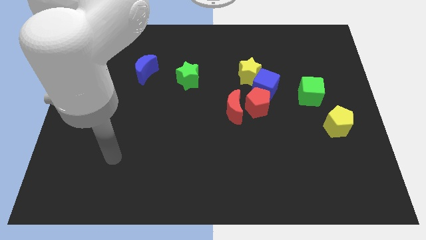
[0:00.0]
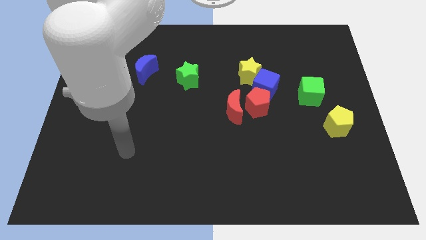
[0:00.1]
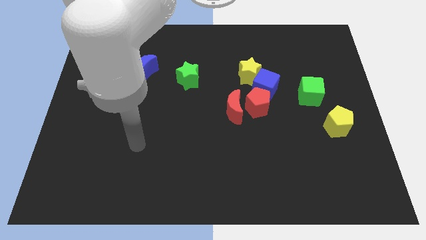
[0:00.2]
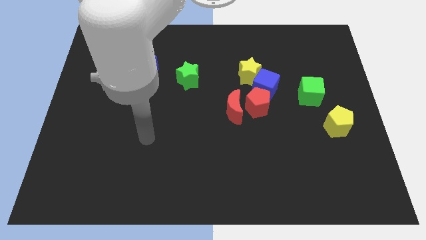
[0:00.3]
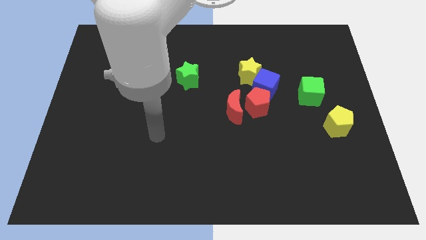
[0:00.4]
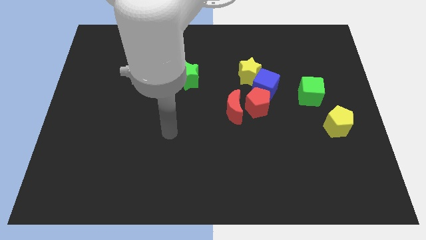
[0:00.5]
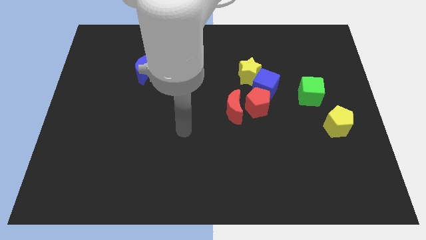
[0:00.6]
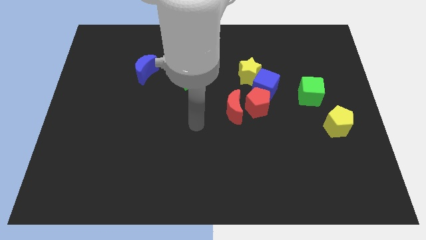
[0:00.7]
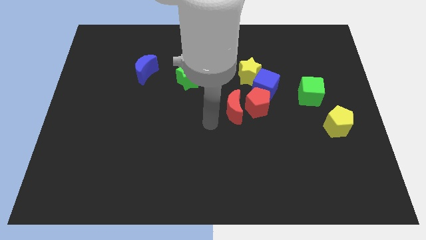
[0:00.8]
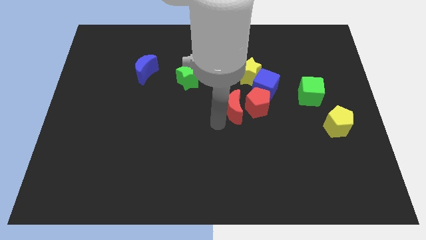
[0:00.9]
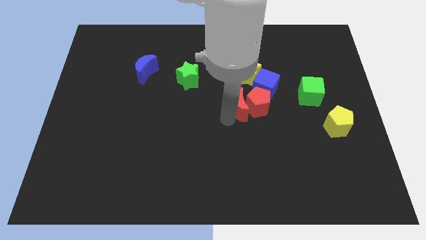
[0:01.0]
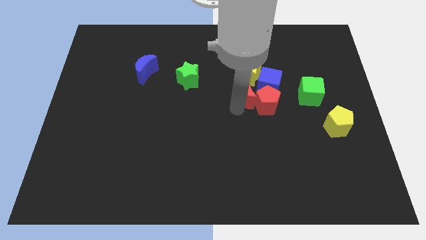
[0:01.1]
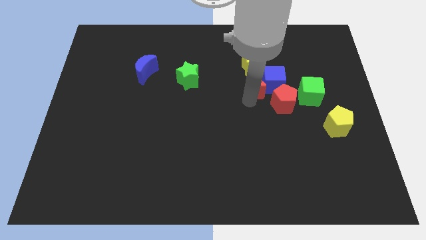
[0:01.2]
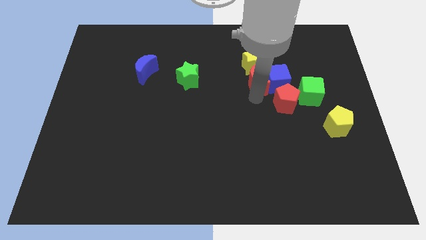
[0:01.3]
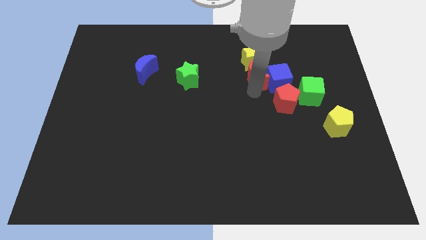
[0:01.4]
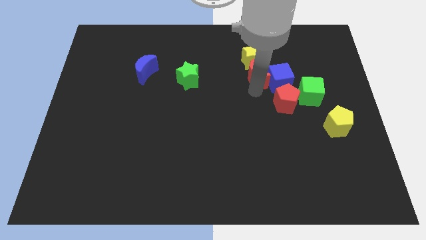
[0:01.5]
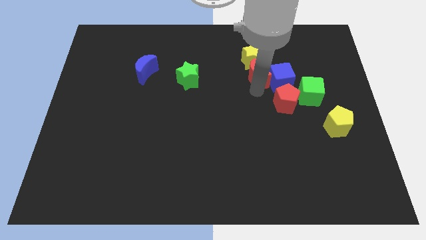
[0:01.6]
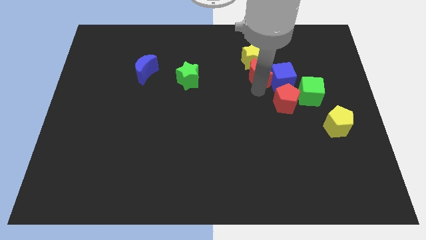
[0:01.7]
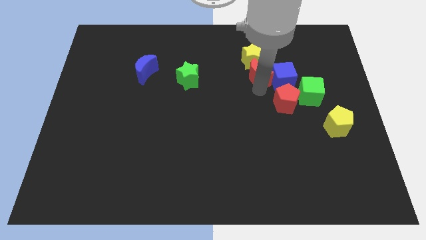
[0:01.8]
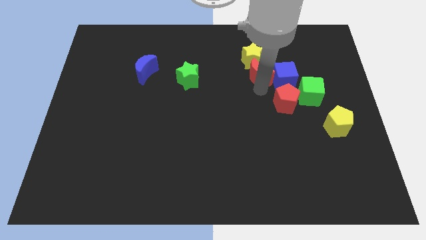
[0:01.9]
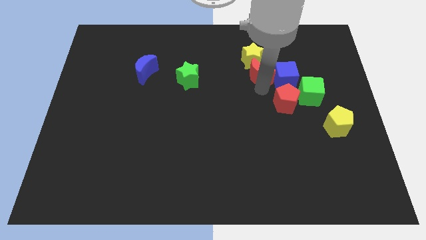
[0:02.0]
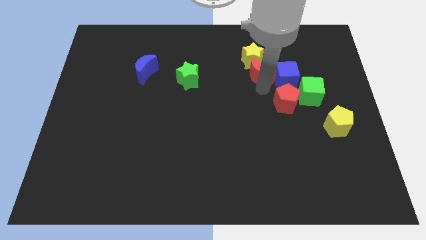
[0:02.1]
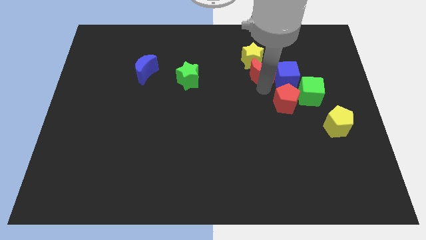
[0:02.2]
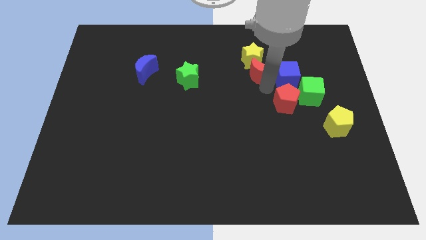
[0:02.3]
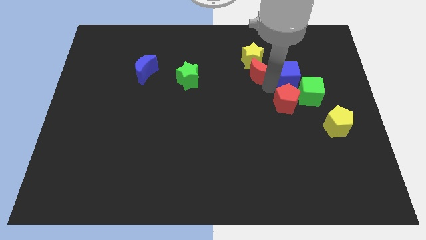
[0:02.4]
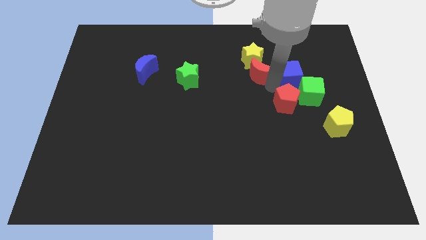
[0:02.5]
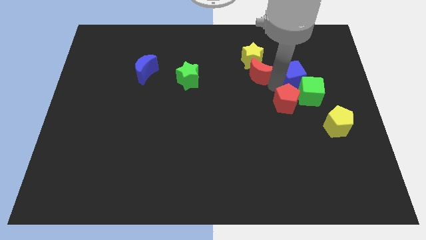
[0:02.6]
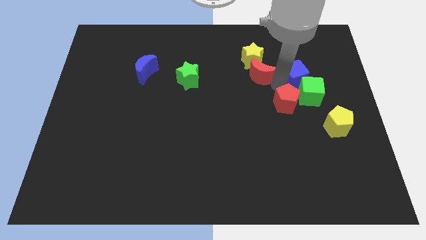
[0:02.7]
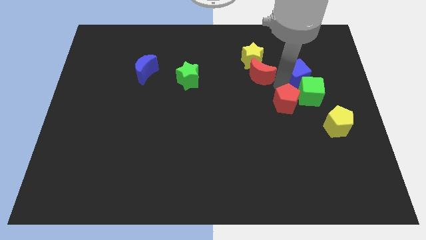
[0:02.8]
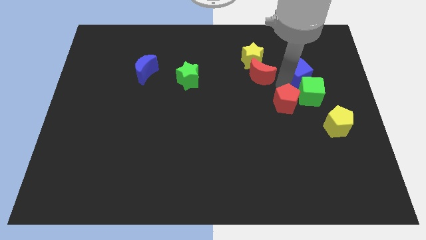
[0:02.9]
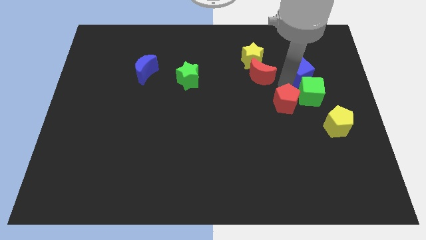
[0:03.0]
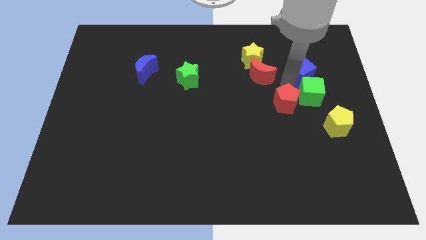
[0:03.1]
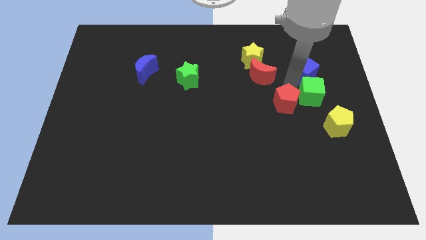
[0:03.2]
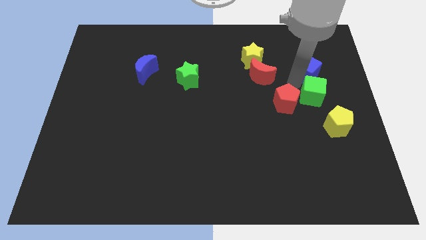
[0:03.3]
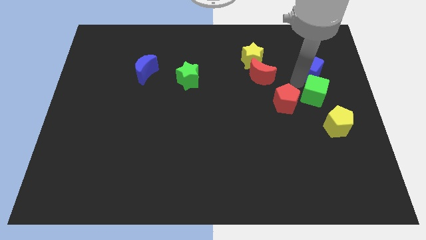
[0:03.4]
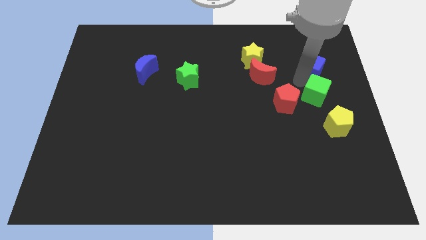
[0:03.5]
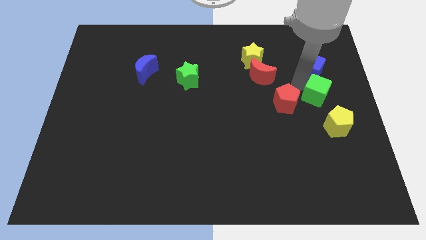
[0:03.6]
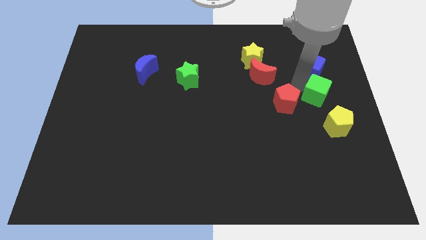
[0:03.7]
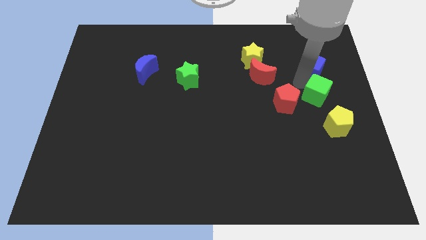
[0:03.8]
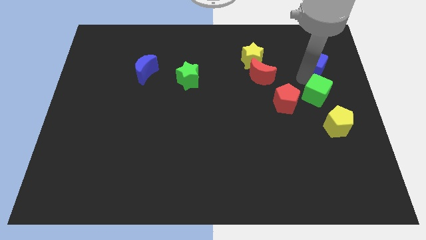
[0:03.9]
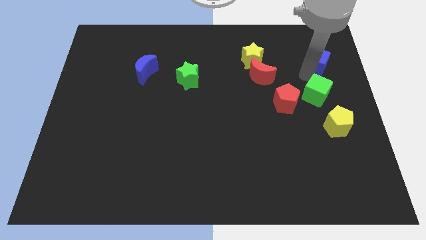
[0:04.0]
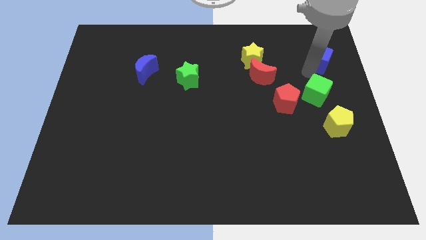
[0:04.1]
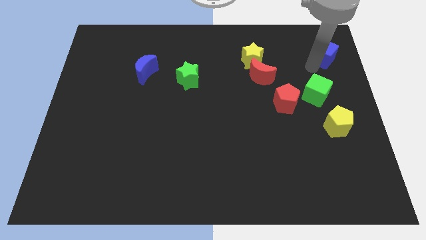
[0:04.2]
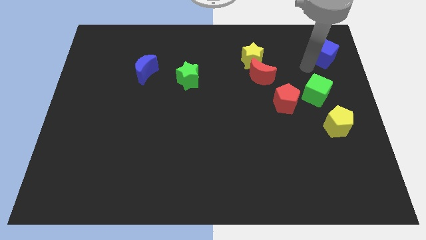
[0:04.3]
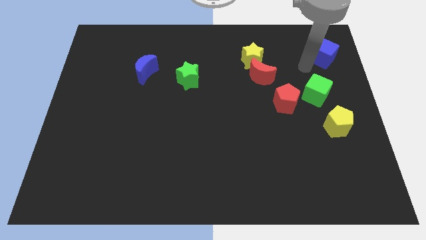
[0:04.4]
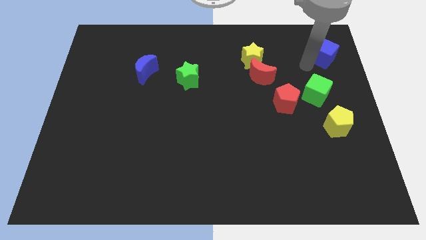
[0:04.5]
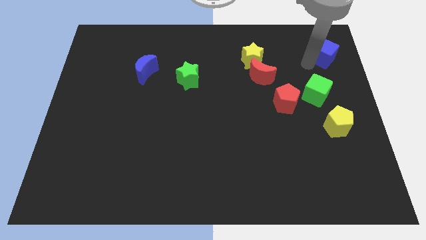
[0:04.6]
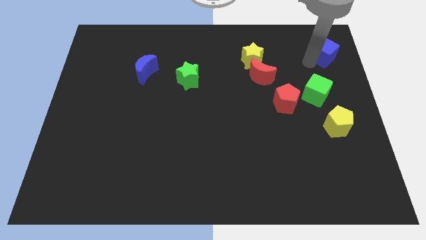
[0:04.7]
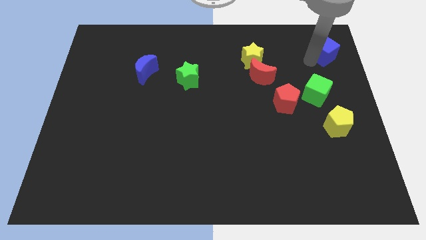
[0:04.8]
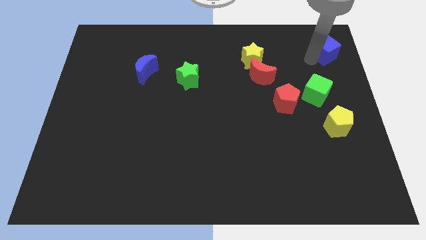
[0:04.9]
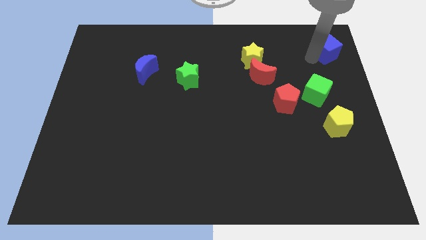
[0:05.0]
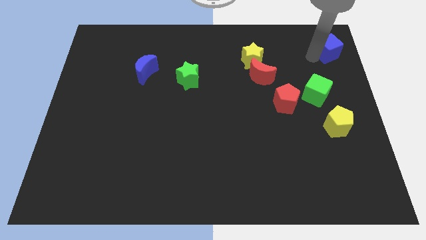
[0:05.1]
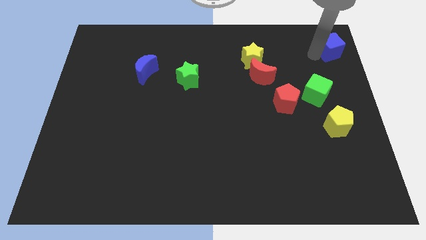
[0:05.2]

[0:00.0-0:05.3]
push the blue cube to the top right corner

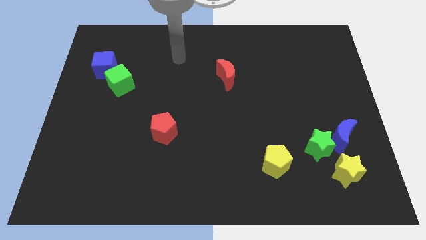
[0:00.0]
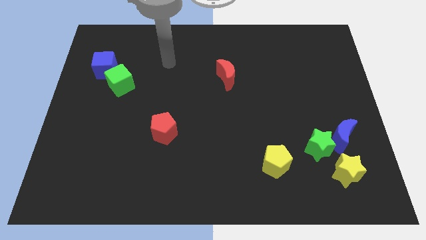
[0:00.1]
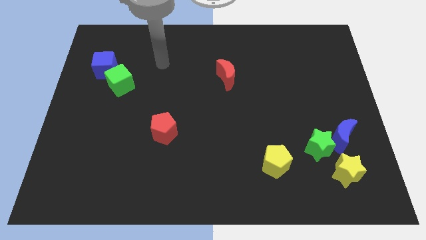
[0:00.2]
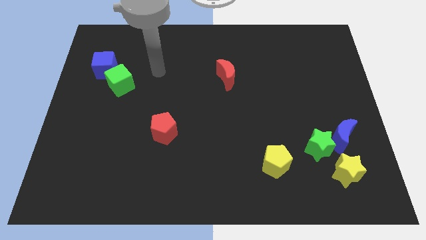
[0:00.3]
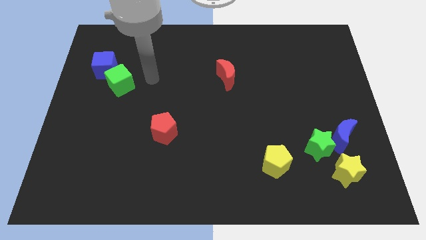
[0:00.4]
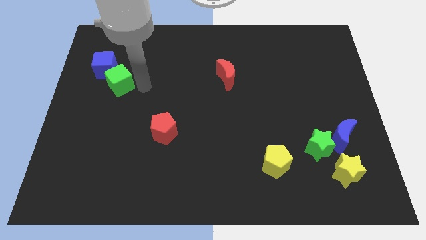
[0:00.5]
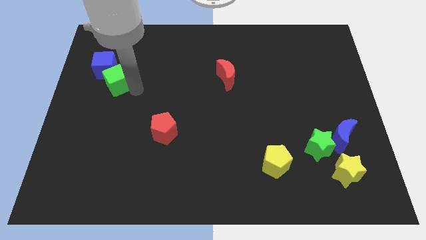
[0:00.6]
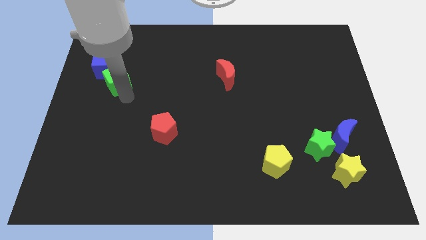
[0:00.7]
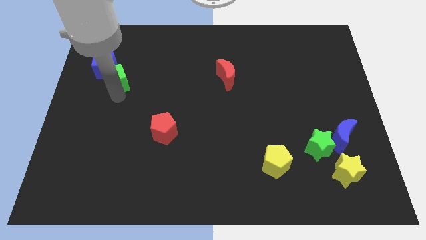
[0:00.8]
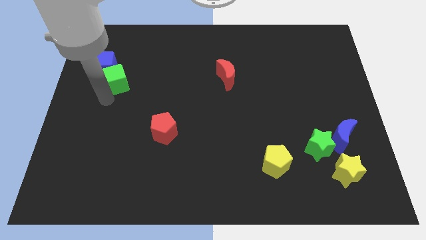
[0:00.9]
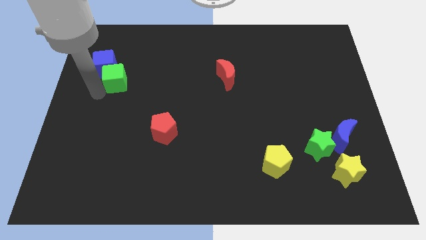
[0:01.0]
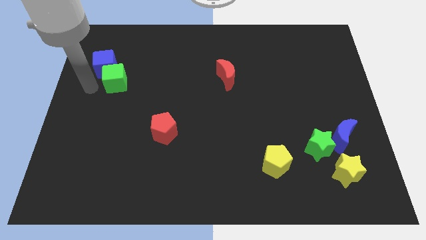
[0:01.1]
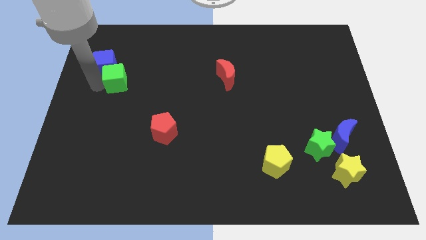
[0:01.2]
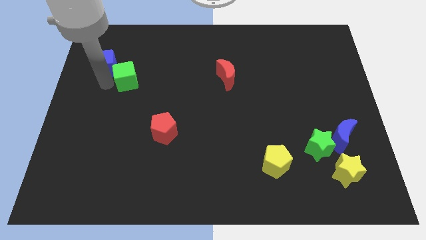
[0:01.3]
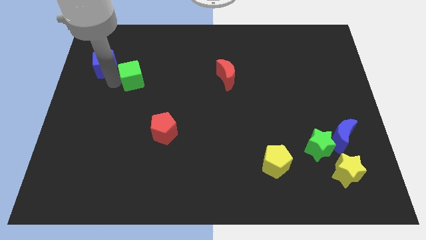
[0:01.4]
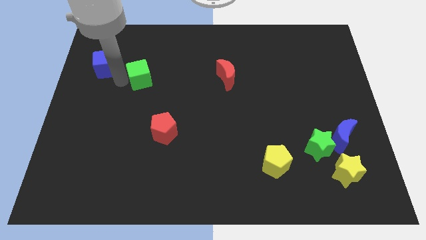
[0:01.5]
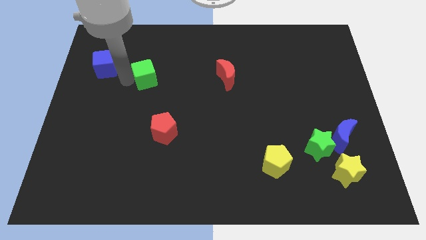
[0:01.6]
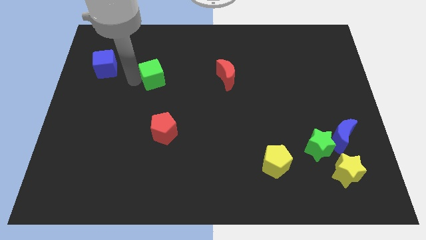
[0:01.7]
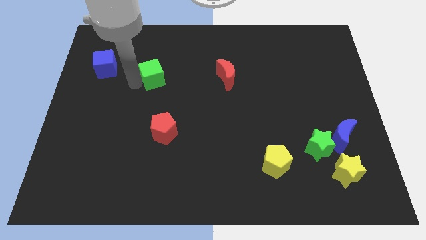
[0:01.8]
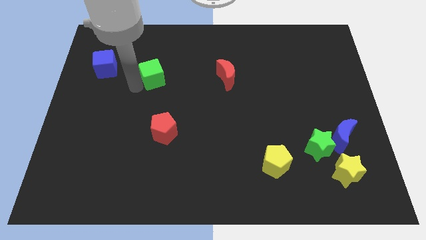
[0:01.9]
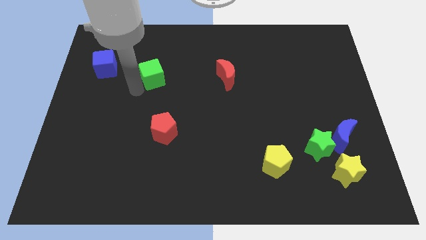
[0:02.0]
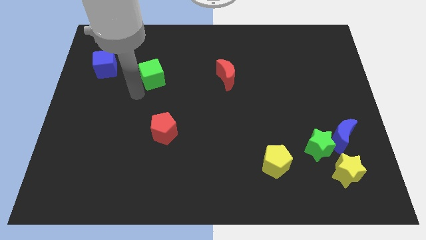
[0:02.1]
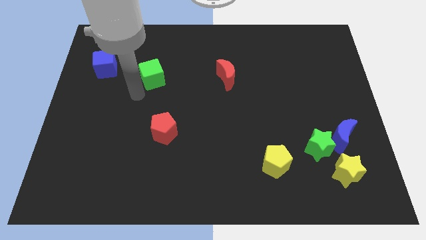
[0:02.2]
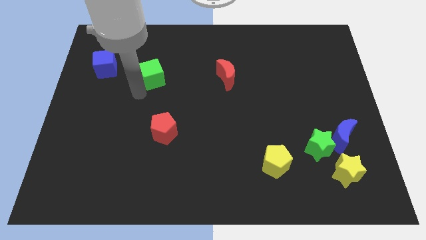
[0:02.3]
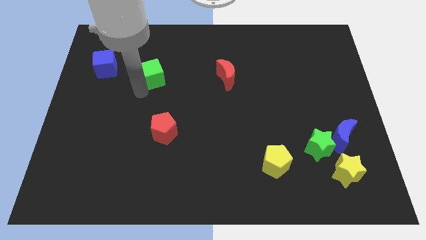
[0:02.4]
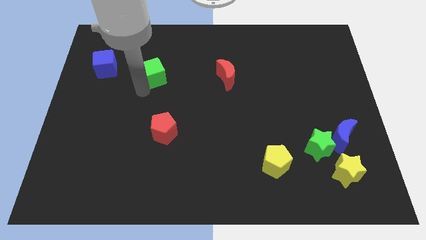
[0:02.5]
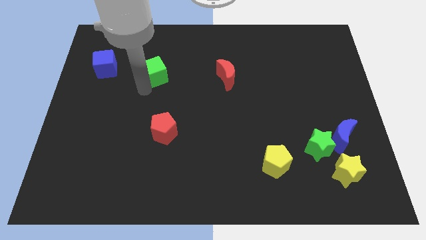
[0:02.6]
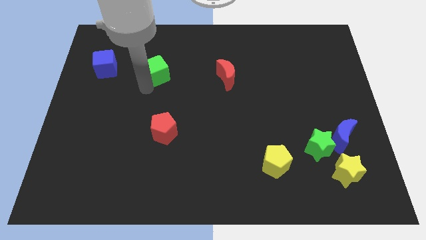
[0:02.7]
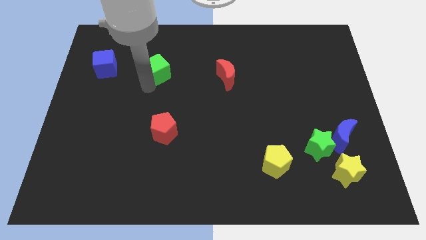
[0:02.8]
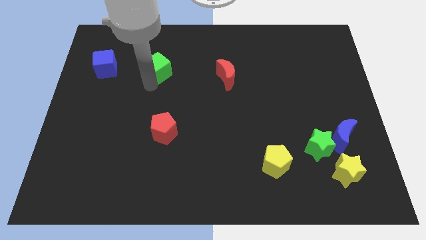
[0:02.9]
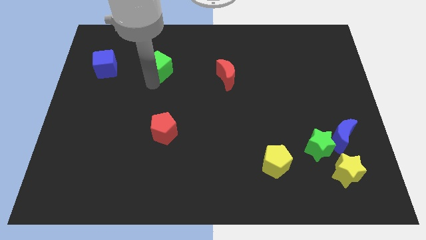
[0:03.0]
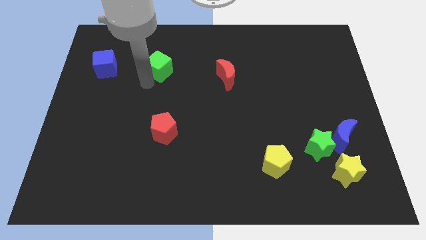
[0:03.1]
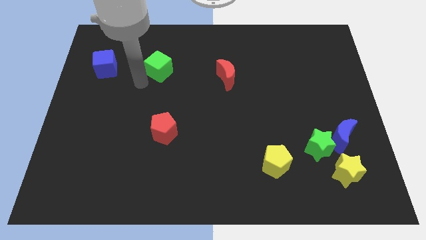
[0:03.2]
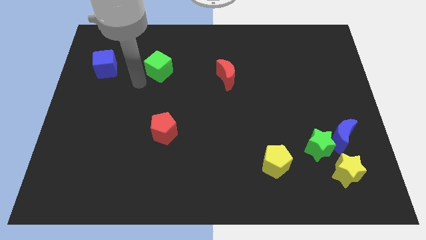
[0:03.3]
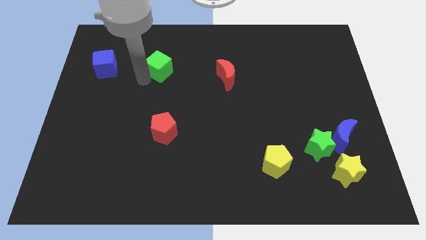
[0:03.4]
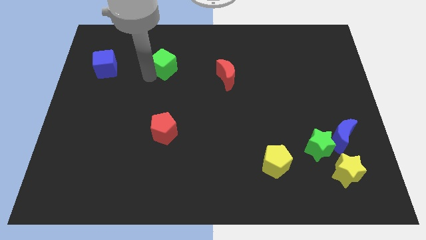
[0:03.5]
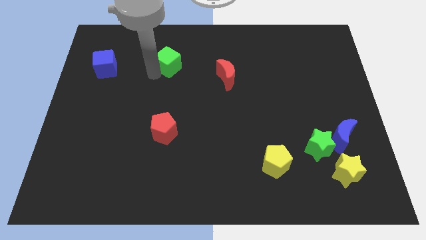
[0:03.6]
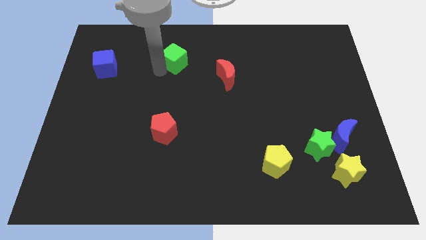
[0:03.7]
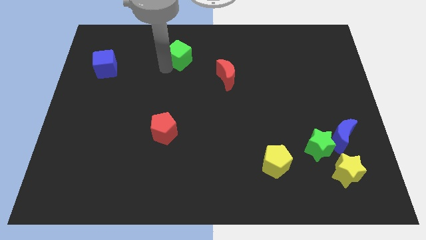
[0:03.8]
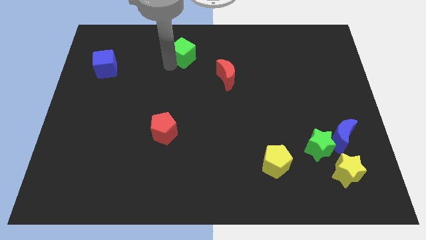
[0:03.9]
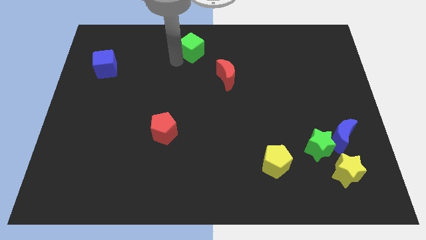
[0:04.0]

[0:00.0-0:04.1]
slide the green cube to the top side
